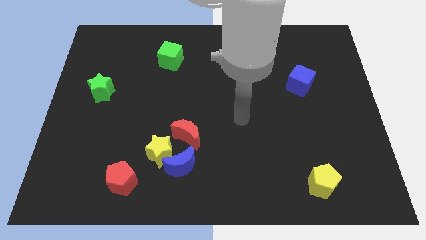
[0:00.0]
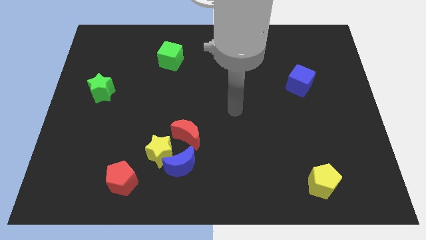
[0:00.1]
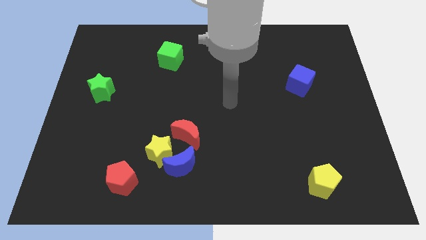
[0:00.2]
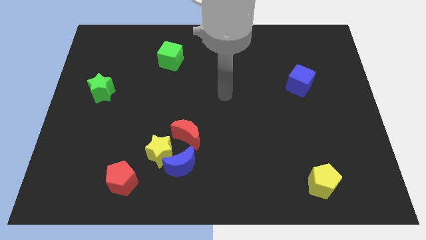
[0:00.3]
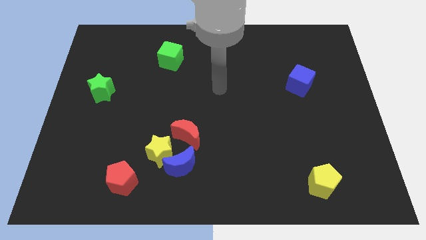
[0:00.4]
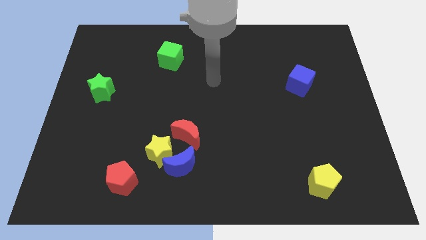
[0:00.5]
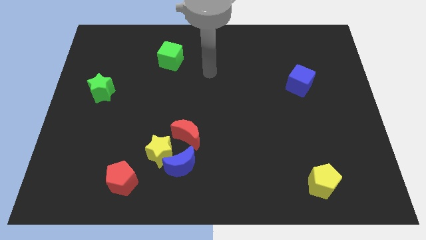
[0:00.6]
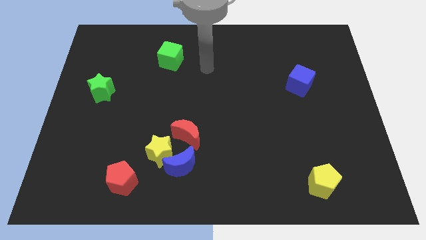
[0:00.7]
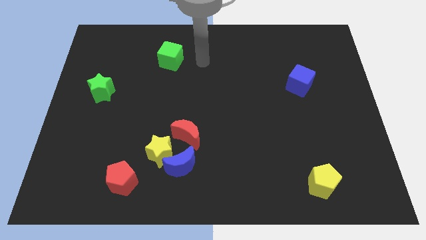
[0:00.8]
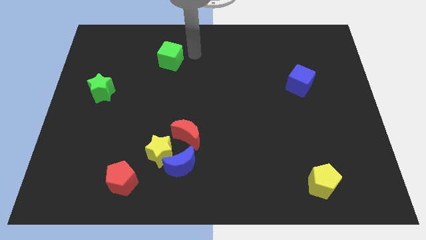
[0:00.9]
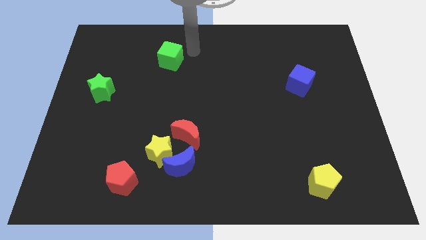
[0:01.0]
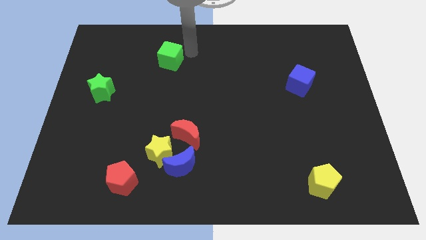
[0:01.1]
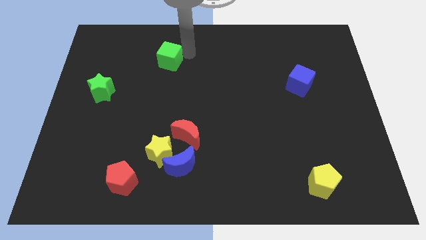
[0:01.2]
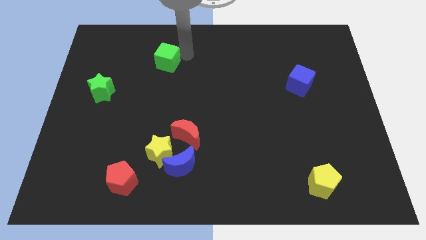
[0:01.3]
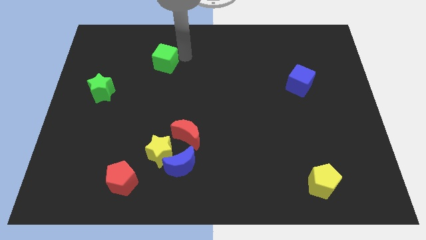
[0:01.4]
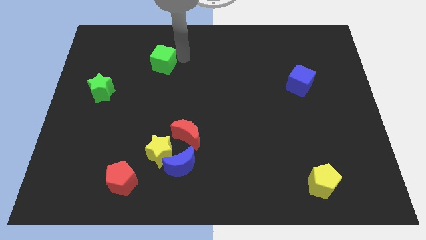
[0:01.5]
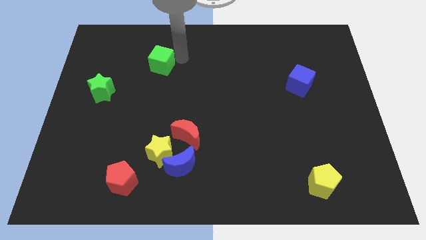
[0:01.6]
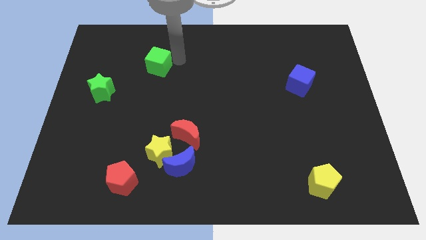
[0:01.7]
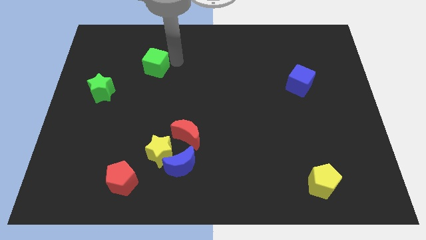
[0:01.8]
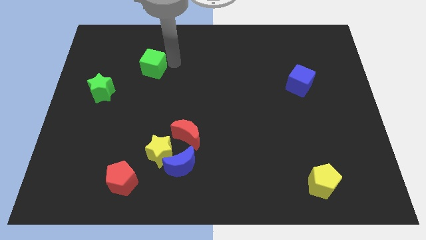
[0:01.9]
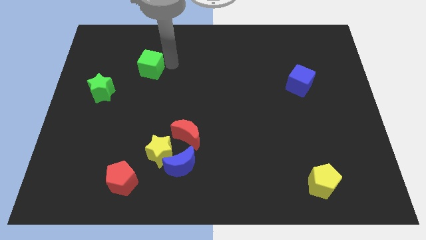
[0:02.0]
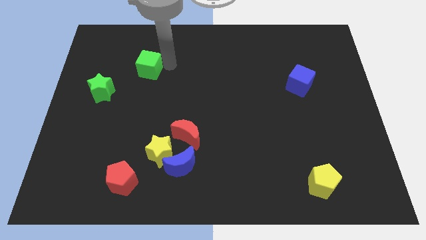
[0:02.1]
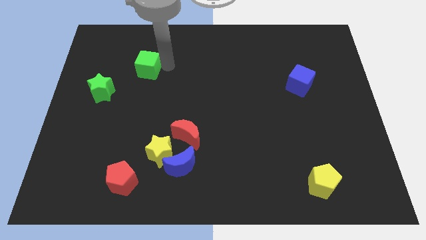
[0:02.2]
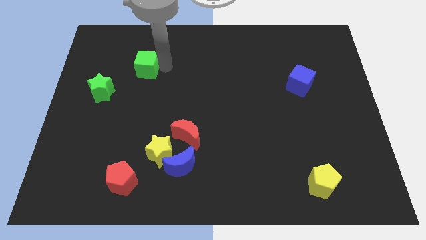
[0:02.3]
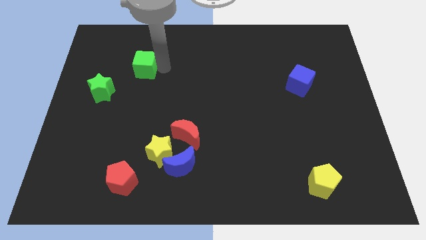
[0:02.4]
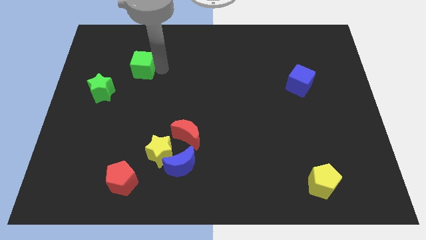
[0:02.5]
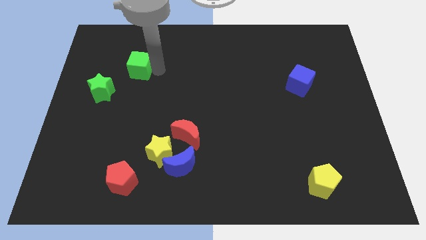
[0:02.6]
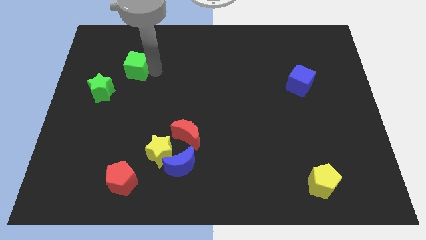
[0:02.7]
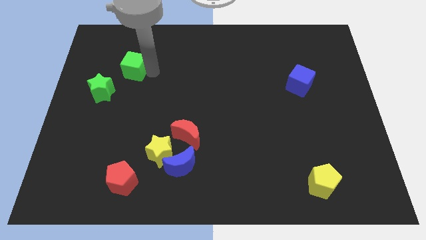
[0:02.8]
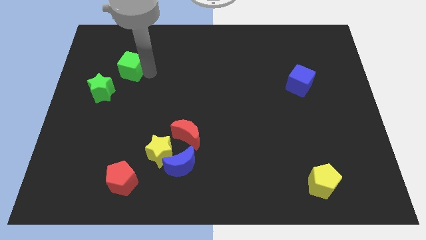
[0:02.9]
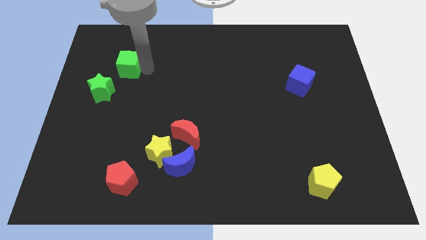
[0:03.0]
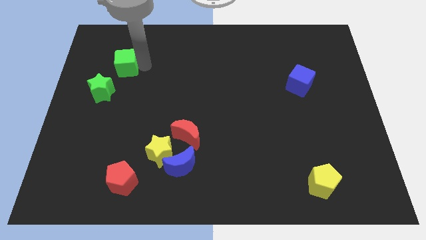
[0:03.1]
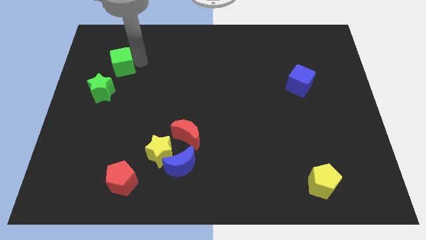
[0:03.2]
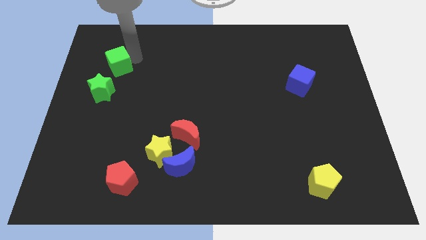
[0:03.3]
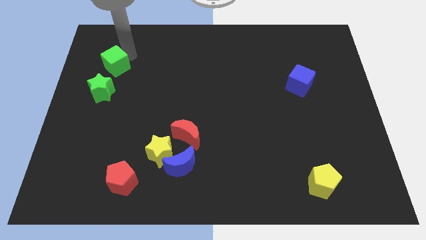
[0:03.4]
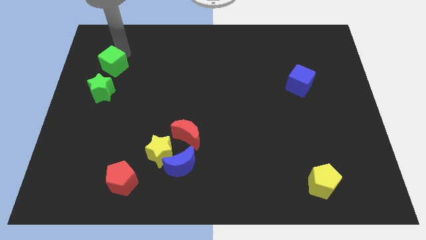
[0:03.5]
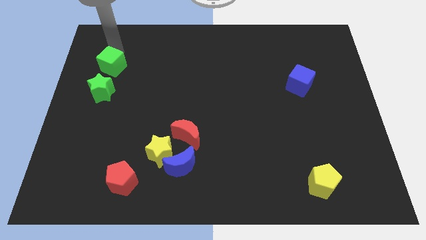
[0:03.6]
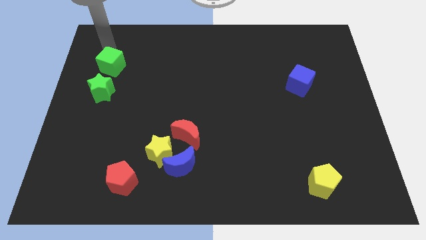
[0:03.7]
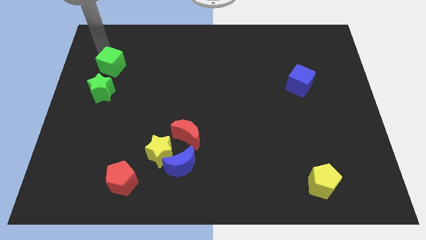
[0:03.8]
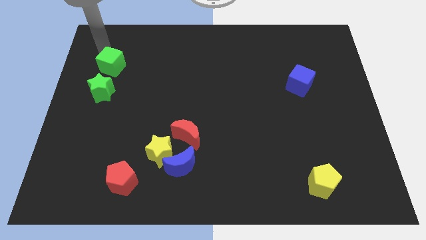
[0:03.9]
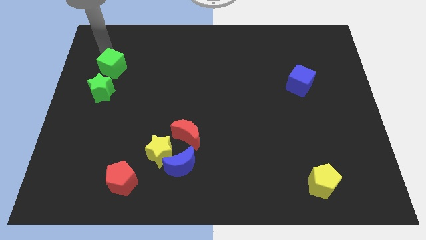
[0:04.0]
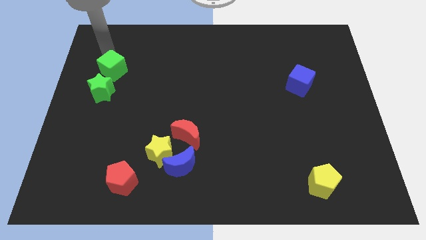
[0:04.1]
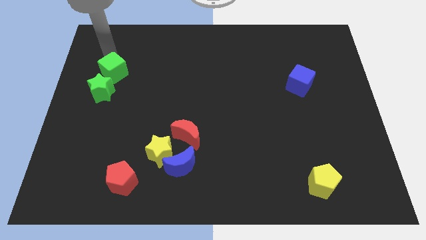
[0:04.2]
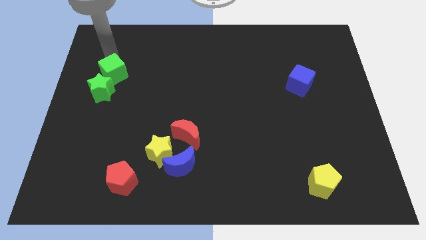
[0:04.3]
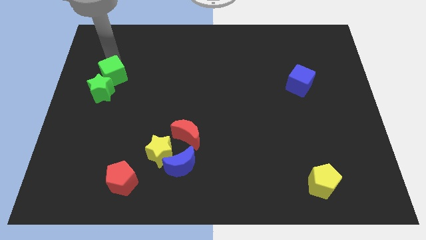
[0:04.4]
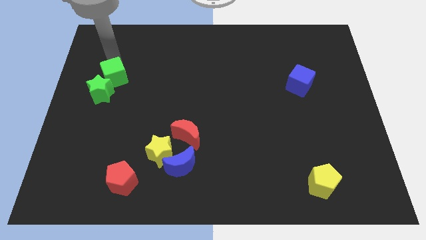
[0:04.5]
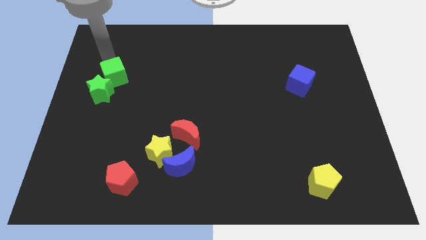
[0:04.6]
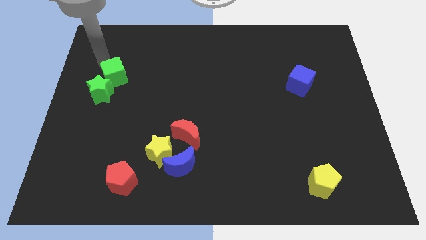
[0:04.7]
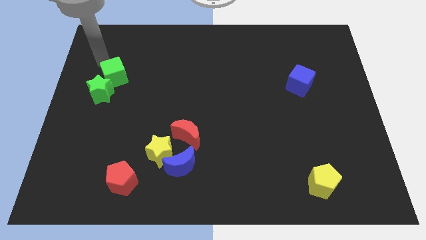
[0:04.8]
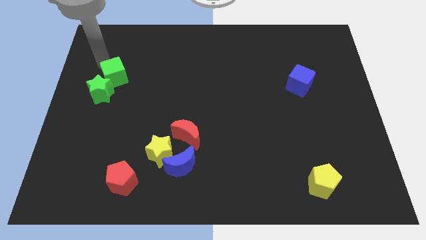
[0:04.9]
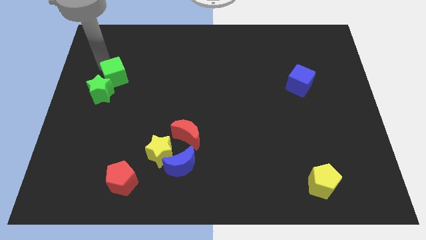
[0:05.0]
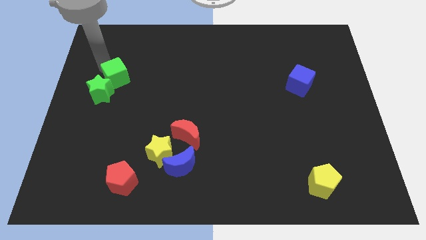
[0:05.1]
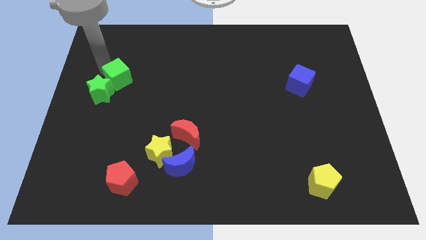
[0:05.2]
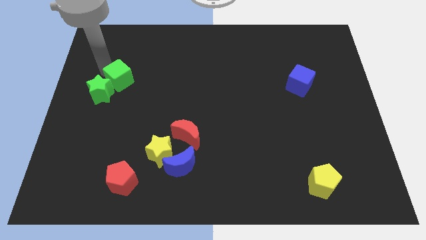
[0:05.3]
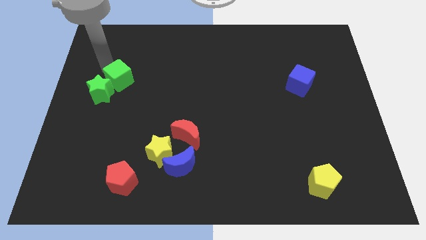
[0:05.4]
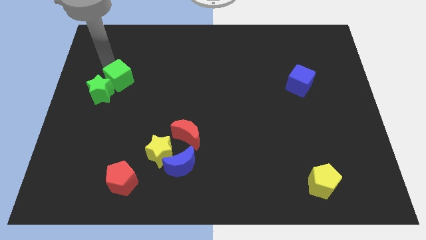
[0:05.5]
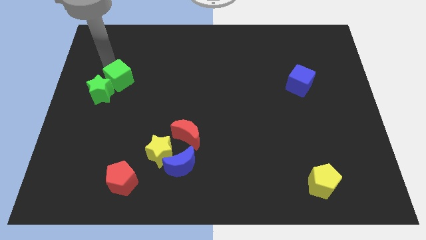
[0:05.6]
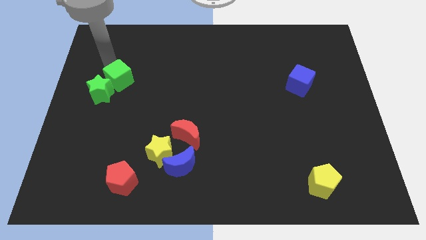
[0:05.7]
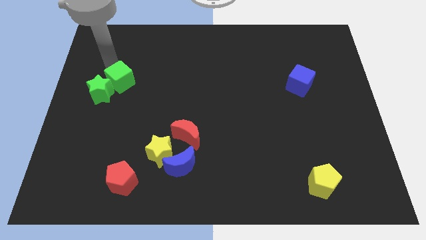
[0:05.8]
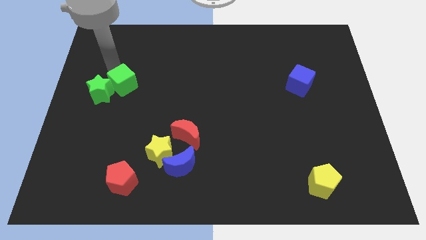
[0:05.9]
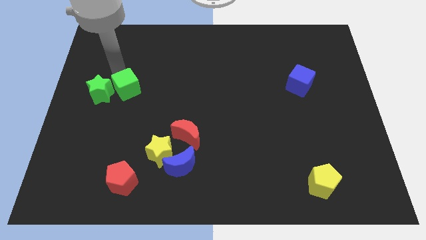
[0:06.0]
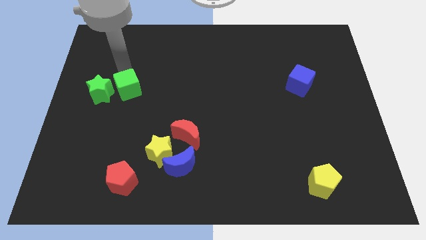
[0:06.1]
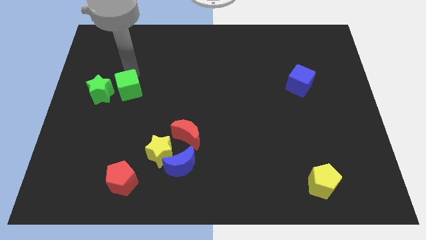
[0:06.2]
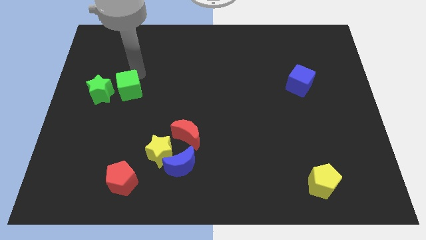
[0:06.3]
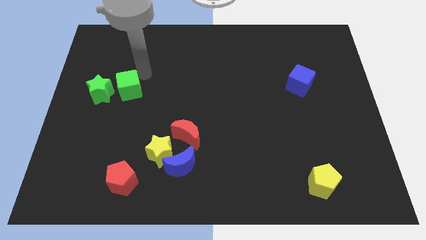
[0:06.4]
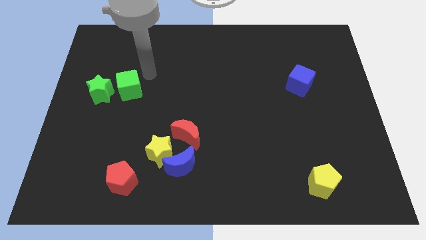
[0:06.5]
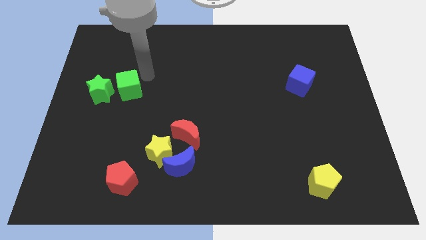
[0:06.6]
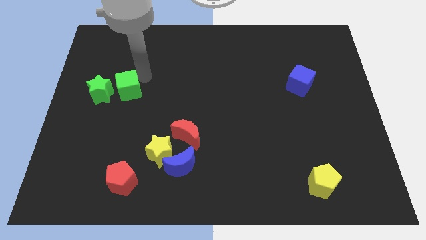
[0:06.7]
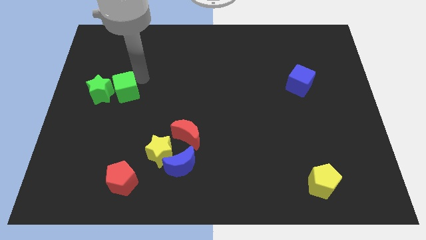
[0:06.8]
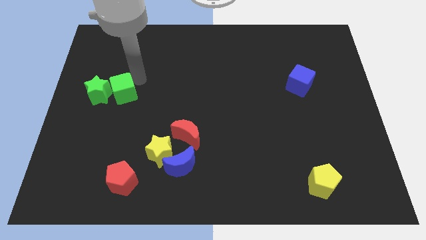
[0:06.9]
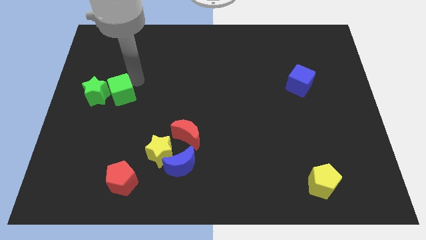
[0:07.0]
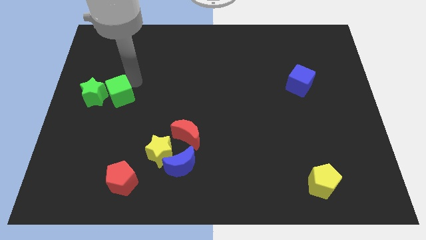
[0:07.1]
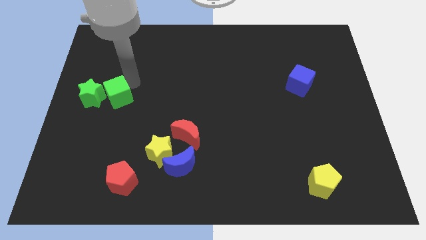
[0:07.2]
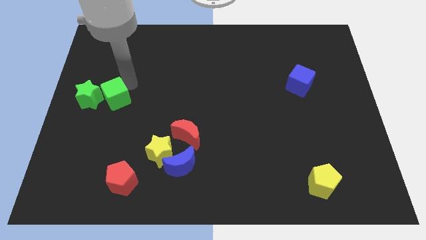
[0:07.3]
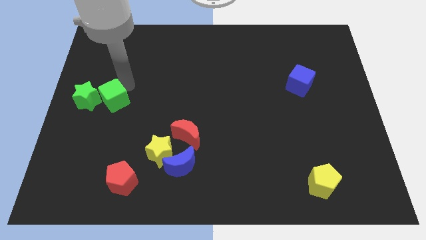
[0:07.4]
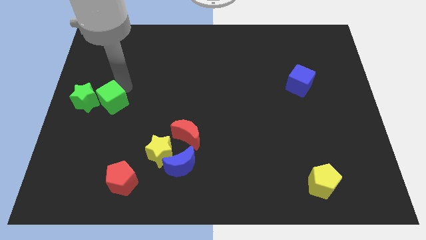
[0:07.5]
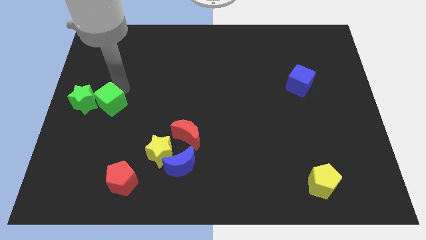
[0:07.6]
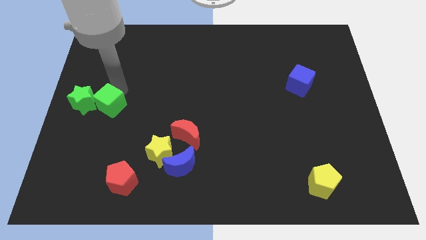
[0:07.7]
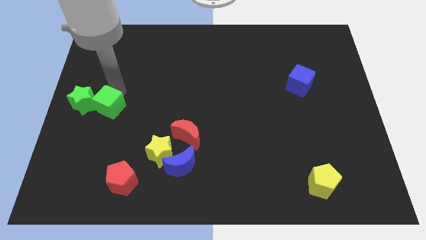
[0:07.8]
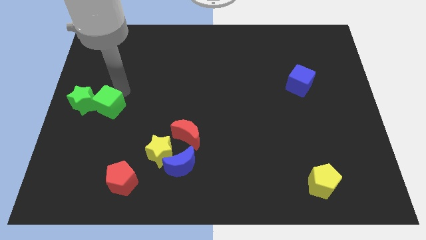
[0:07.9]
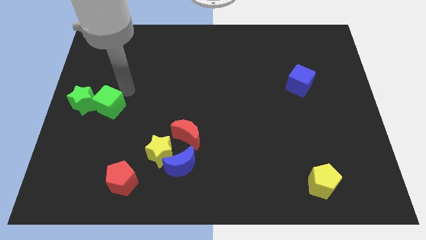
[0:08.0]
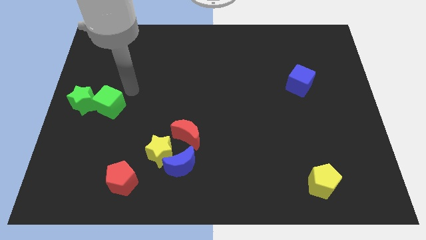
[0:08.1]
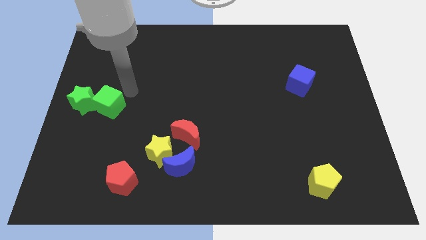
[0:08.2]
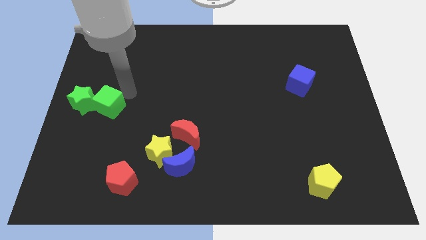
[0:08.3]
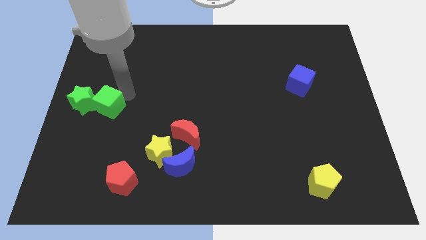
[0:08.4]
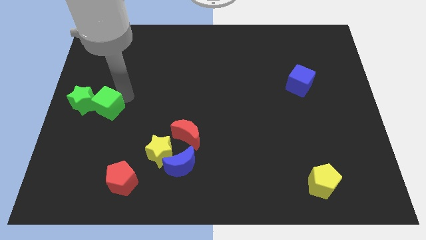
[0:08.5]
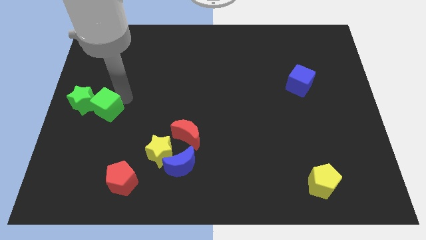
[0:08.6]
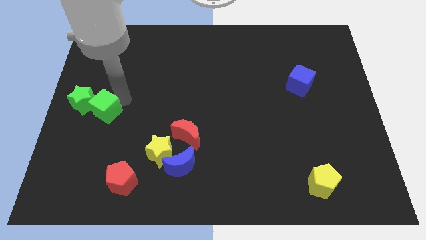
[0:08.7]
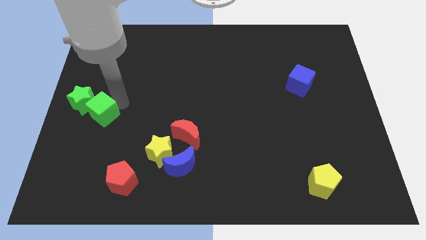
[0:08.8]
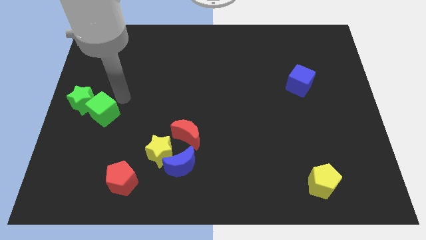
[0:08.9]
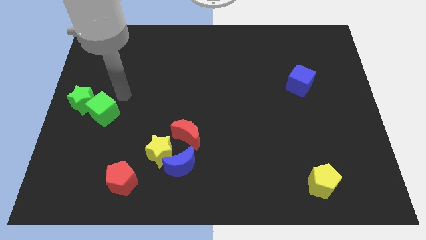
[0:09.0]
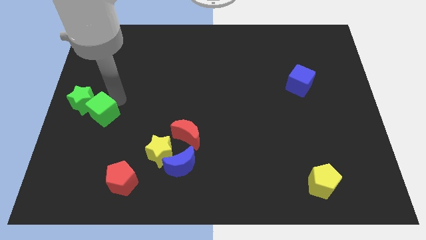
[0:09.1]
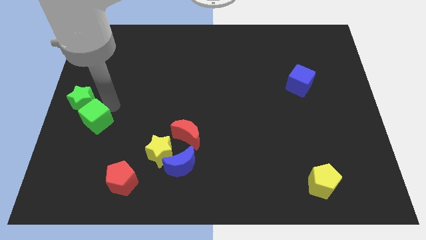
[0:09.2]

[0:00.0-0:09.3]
move the green cube to the bottom side of the green star
